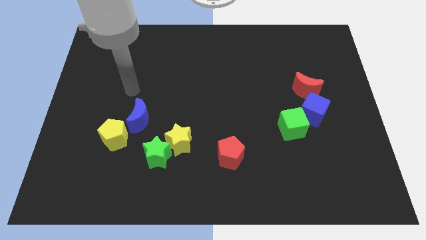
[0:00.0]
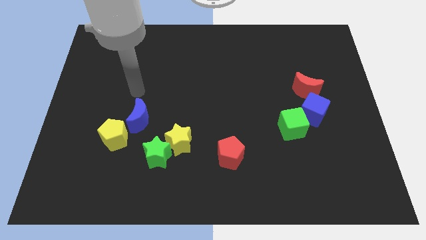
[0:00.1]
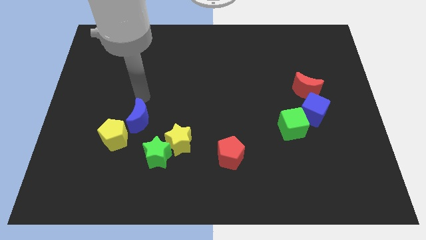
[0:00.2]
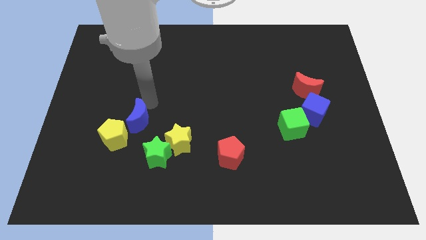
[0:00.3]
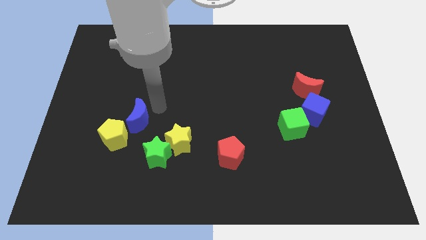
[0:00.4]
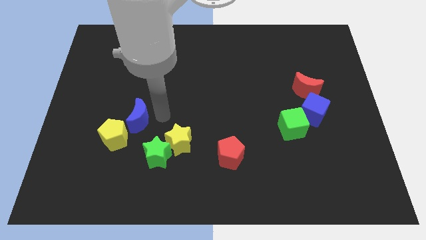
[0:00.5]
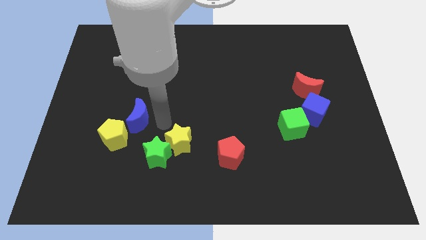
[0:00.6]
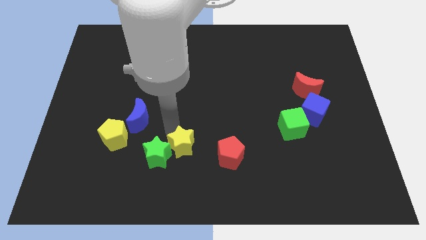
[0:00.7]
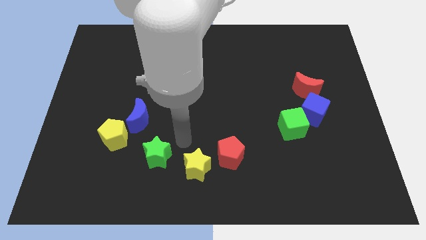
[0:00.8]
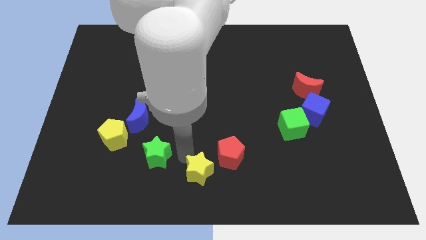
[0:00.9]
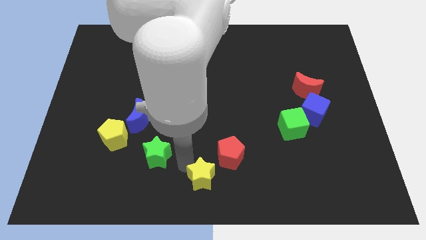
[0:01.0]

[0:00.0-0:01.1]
pull the green star apart from the yellow star

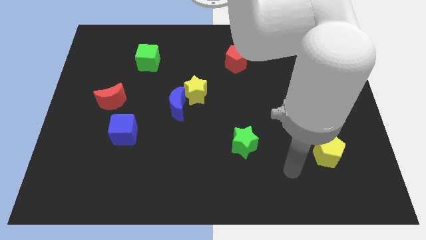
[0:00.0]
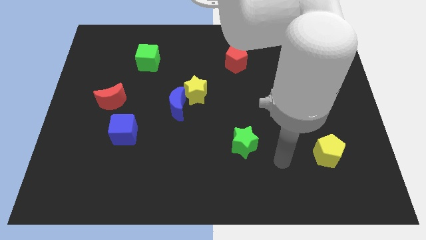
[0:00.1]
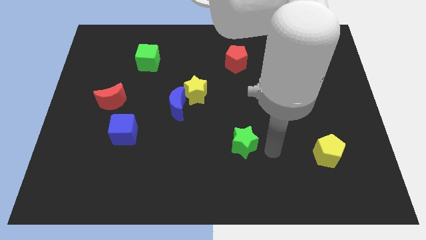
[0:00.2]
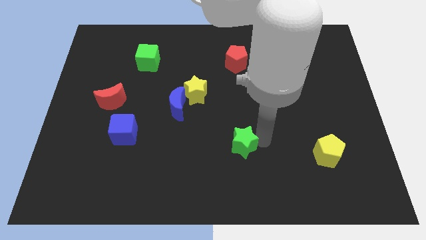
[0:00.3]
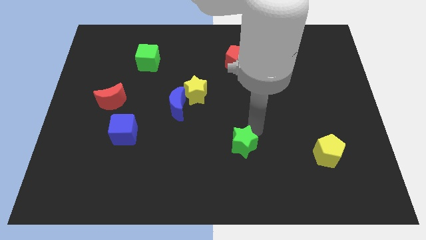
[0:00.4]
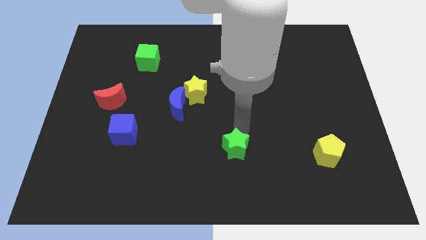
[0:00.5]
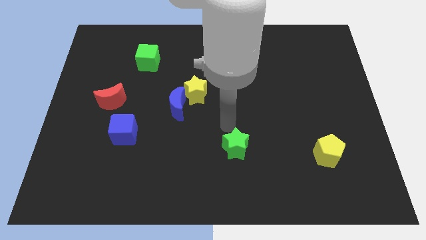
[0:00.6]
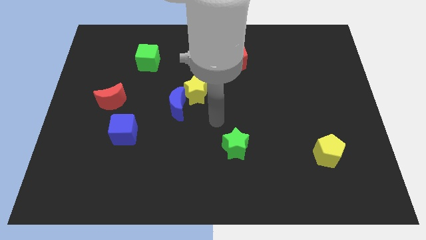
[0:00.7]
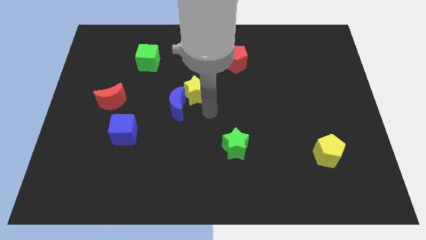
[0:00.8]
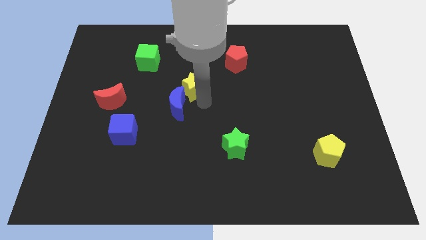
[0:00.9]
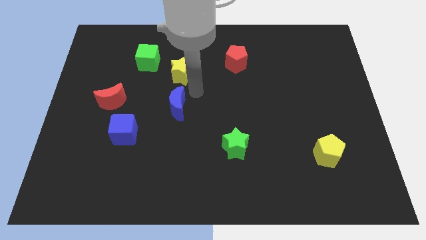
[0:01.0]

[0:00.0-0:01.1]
separate the blue moon from the yellow star

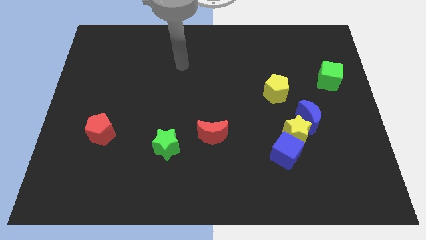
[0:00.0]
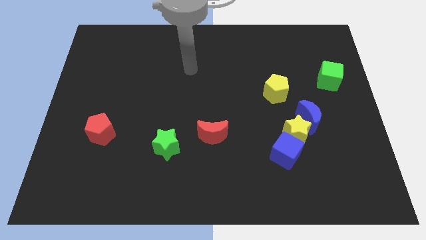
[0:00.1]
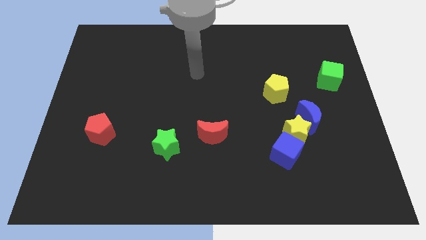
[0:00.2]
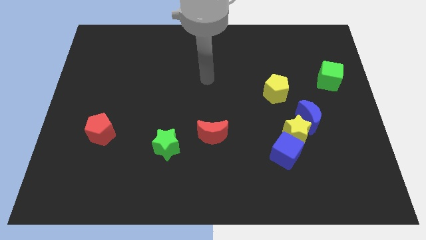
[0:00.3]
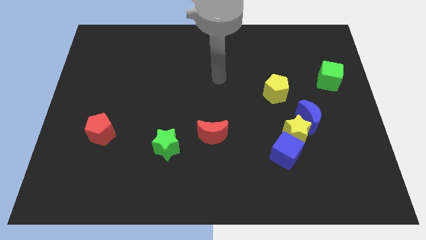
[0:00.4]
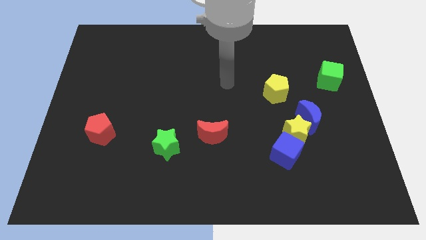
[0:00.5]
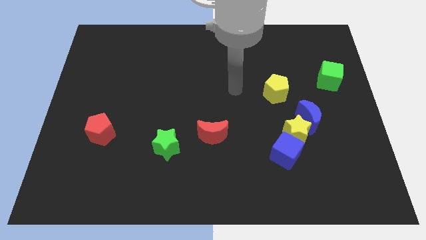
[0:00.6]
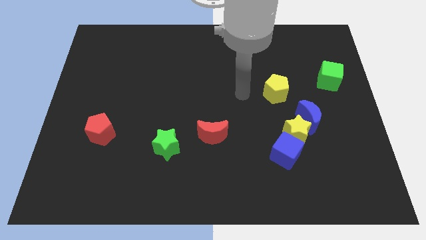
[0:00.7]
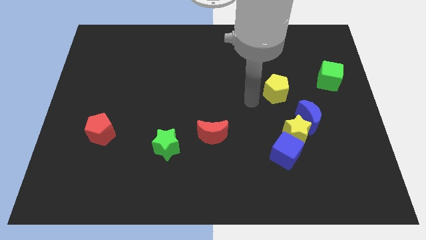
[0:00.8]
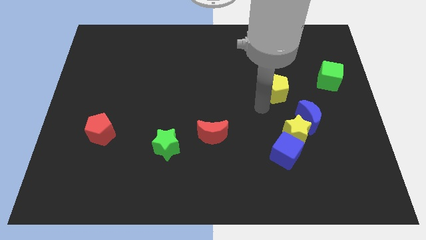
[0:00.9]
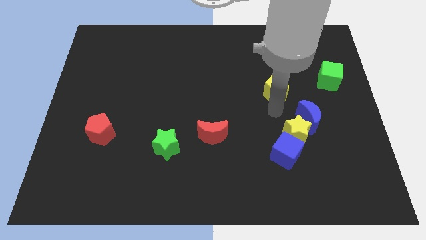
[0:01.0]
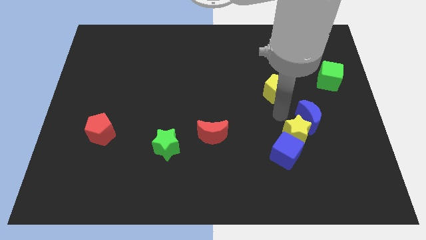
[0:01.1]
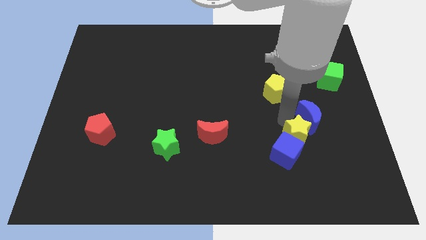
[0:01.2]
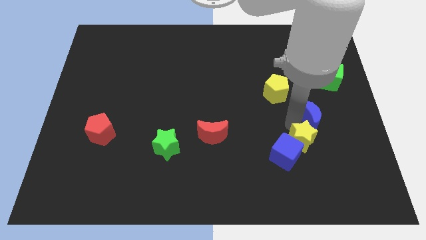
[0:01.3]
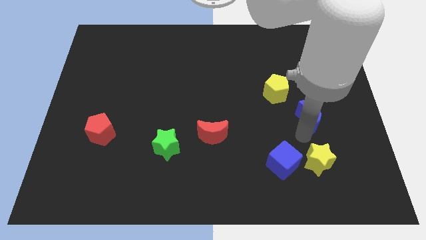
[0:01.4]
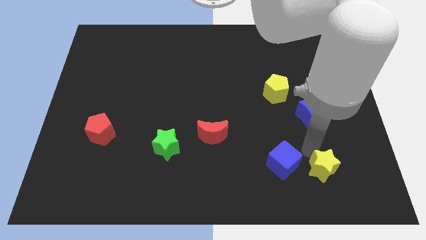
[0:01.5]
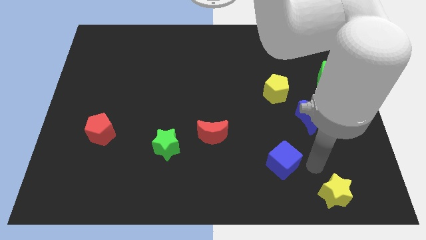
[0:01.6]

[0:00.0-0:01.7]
move the blue cube away from the yellow star

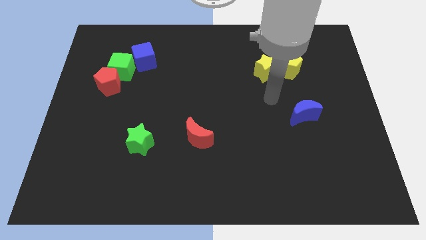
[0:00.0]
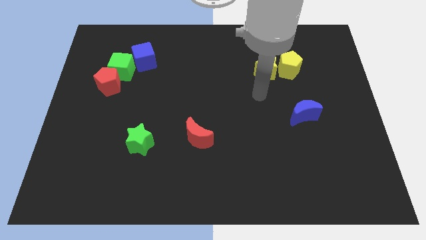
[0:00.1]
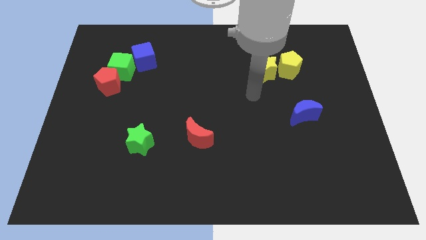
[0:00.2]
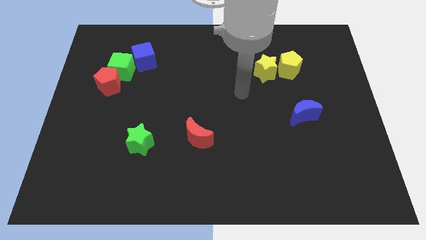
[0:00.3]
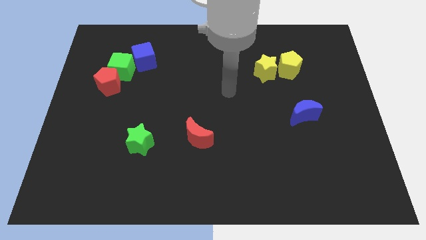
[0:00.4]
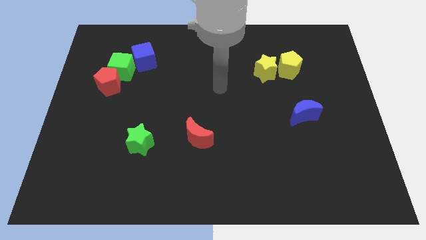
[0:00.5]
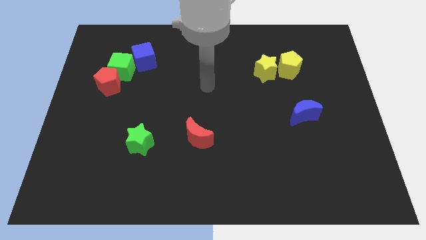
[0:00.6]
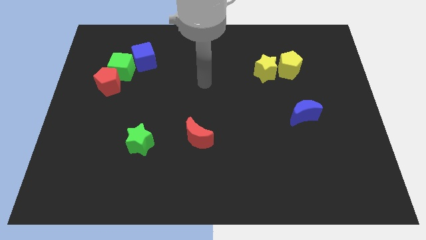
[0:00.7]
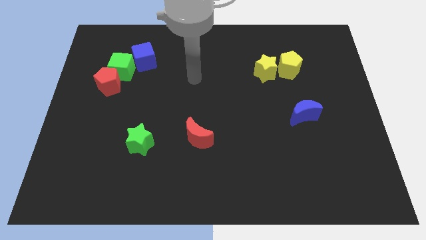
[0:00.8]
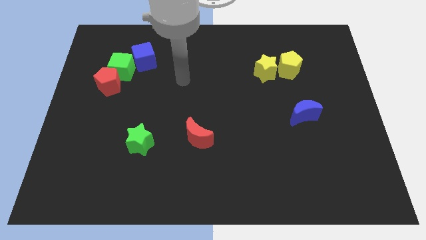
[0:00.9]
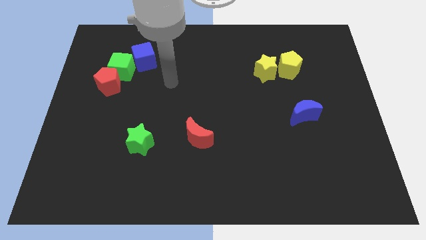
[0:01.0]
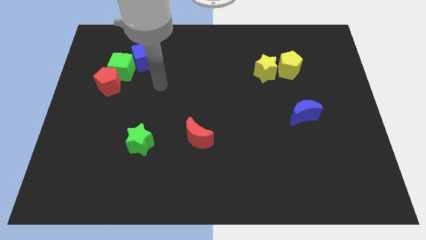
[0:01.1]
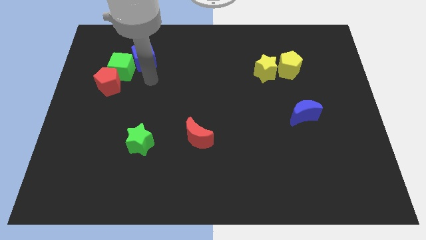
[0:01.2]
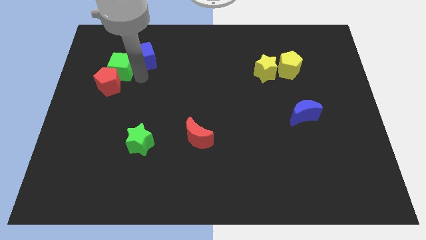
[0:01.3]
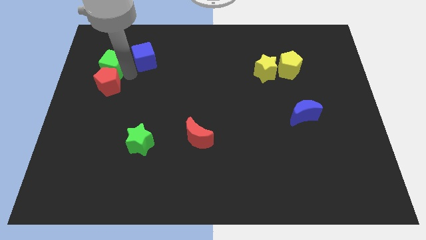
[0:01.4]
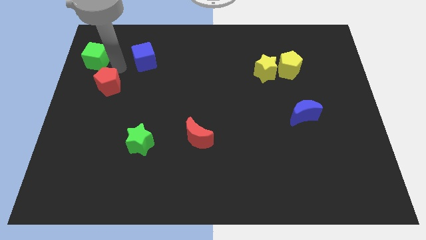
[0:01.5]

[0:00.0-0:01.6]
separate the red pentagon from the green cube

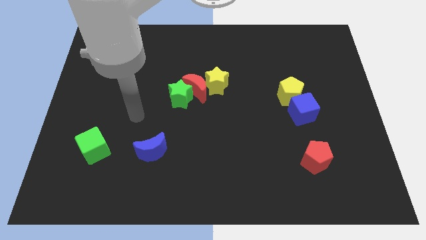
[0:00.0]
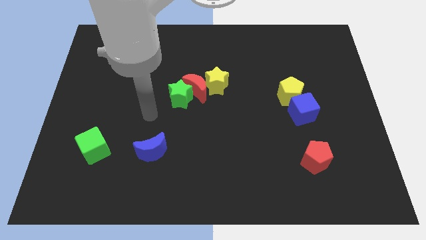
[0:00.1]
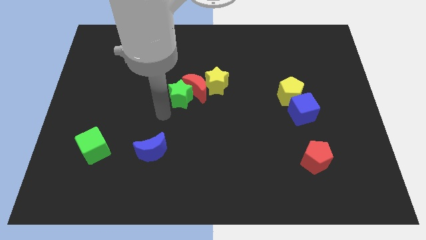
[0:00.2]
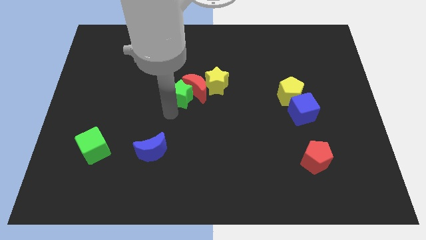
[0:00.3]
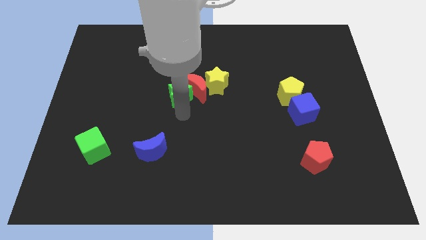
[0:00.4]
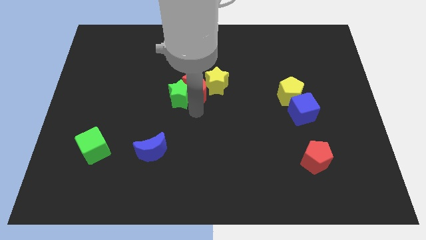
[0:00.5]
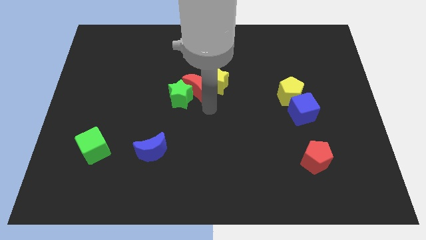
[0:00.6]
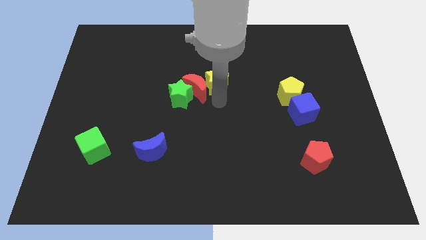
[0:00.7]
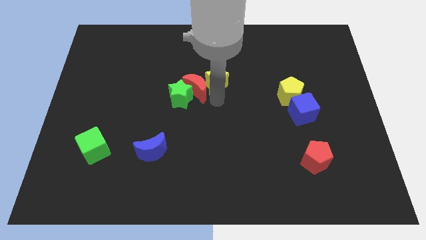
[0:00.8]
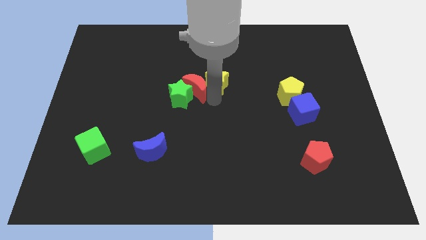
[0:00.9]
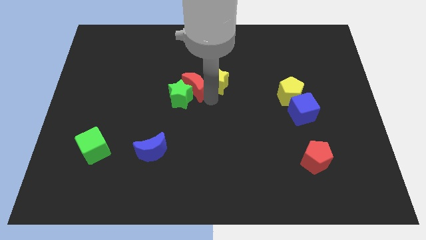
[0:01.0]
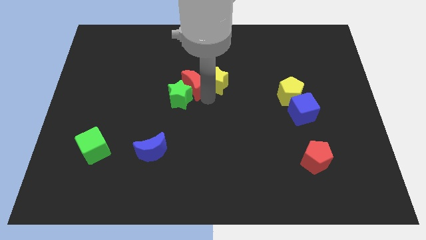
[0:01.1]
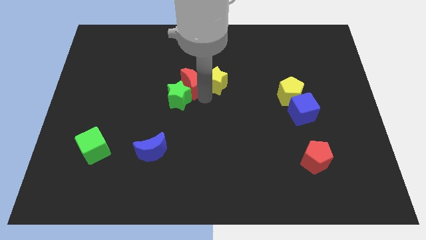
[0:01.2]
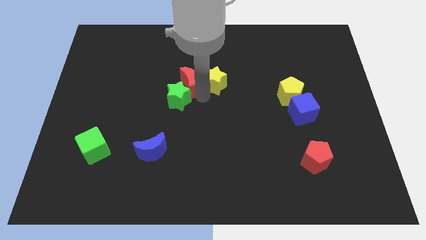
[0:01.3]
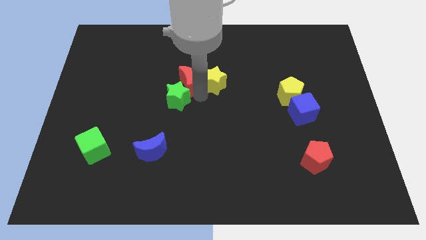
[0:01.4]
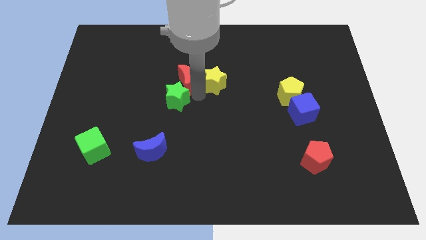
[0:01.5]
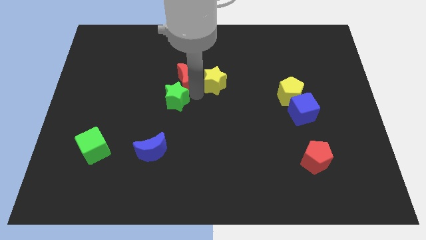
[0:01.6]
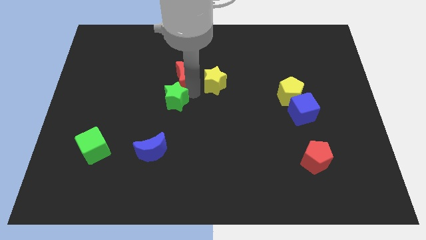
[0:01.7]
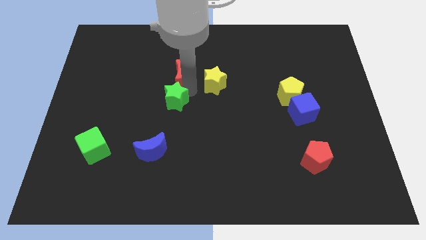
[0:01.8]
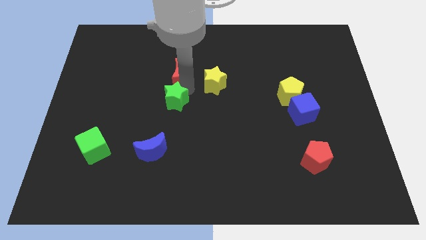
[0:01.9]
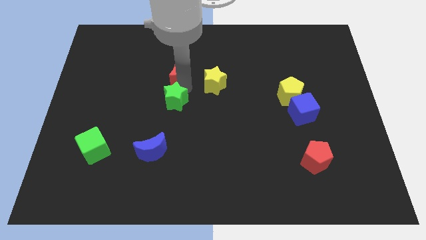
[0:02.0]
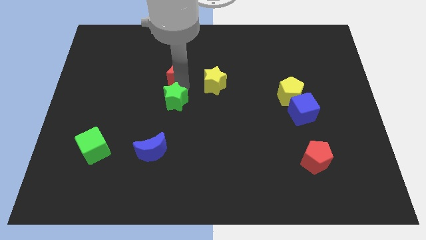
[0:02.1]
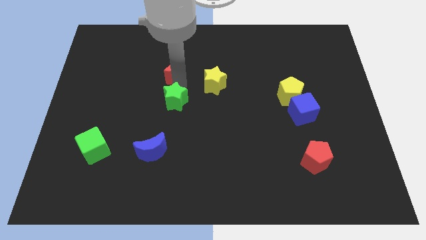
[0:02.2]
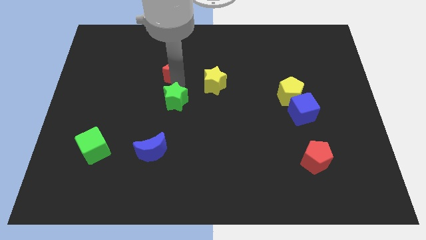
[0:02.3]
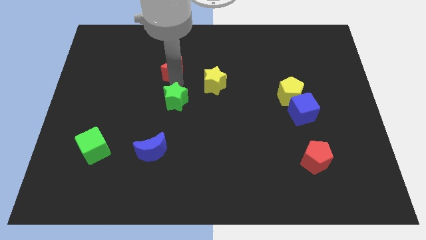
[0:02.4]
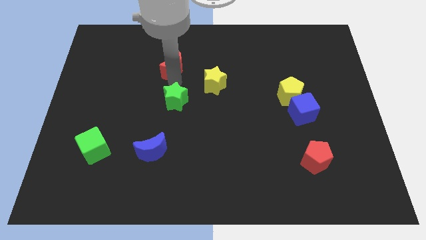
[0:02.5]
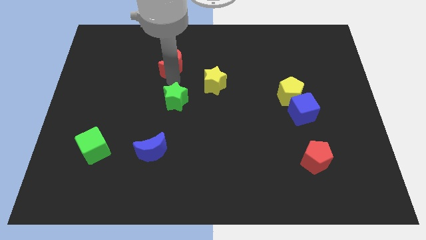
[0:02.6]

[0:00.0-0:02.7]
move the red moon away from the green star and yellow star

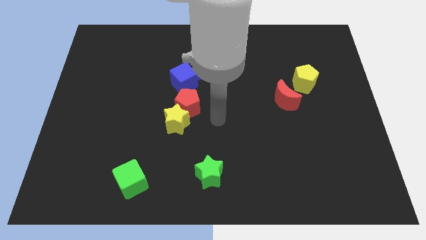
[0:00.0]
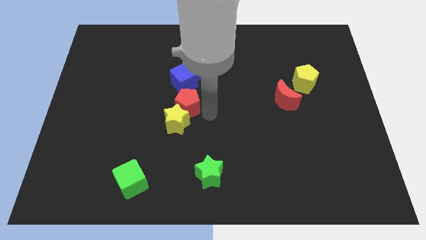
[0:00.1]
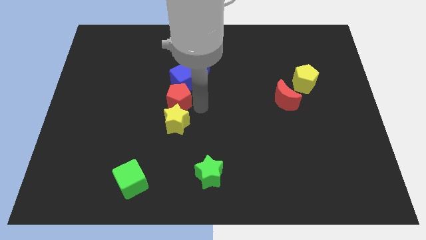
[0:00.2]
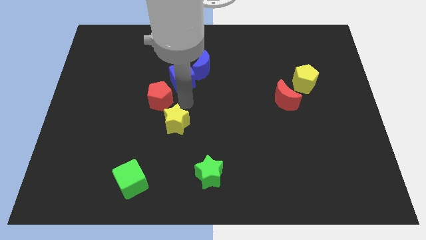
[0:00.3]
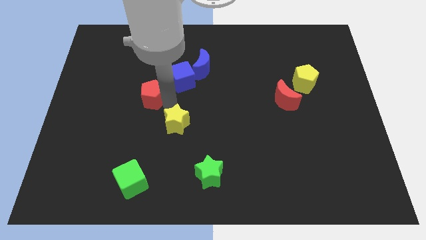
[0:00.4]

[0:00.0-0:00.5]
separate the yellow star from the red pentagon

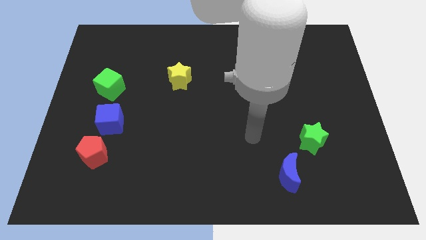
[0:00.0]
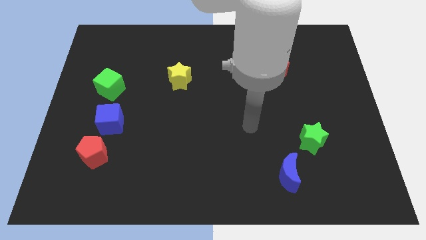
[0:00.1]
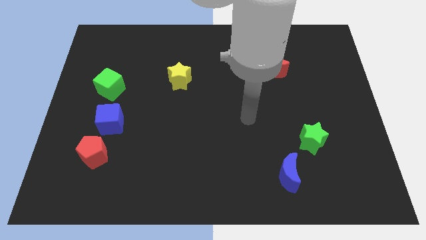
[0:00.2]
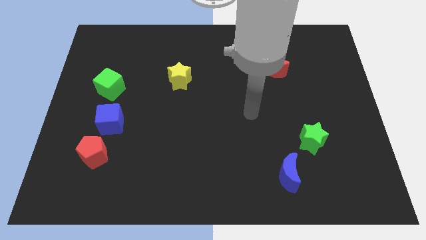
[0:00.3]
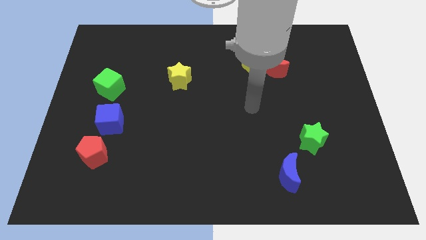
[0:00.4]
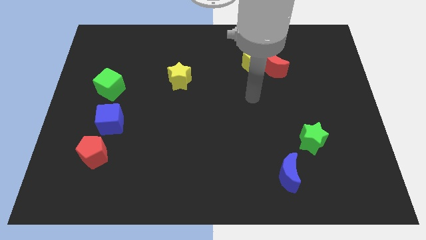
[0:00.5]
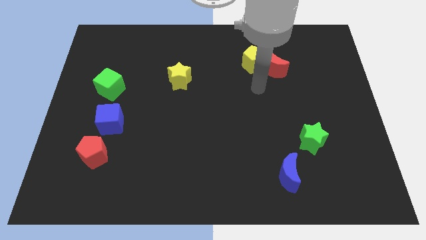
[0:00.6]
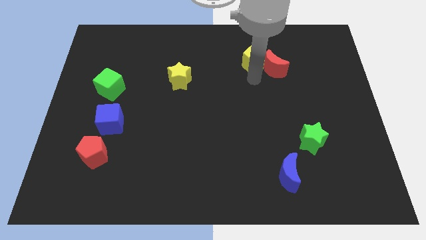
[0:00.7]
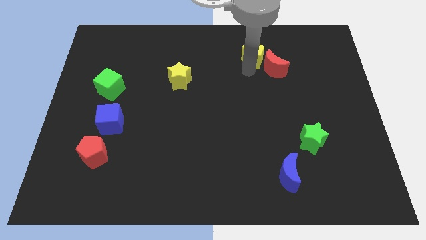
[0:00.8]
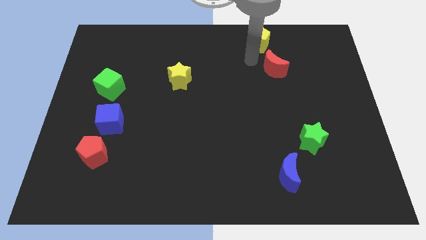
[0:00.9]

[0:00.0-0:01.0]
separate the red moon from the yellow pentagon
